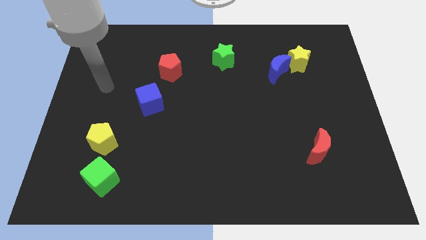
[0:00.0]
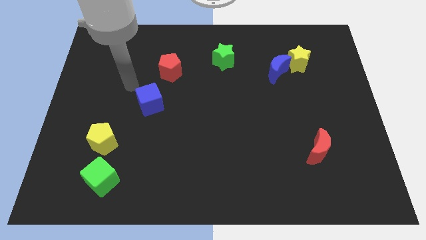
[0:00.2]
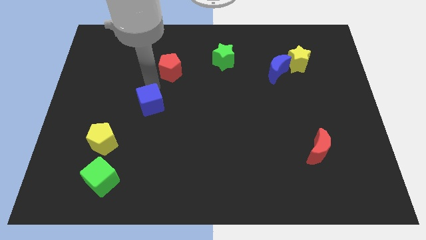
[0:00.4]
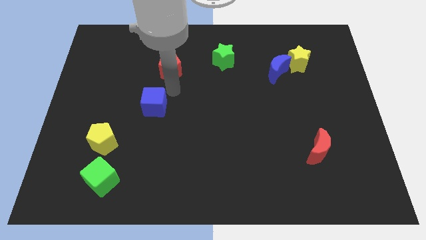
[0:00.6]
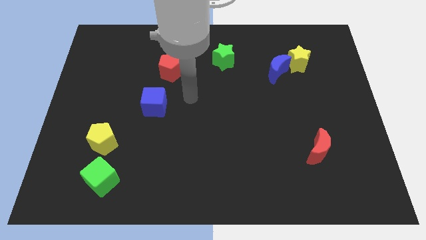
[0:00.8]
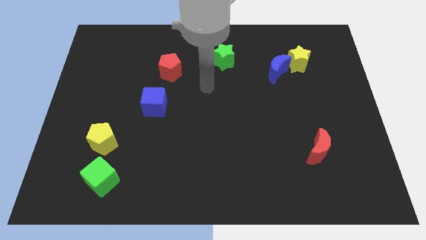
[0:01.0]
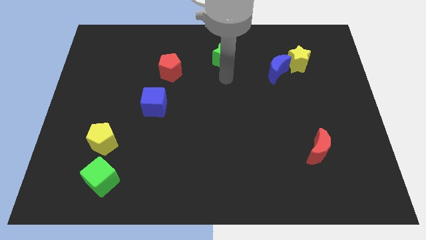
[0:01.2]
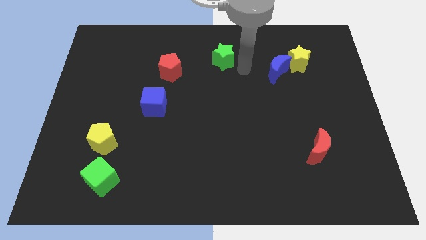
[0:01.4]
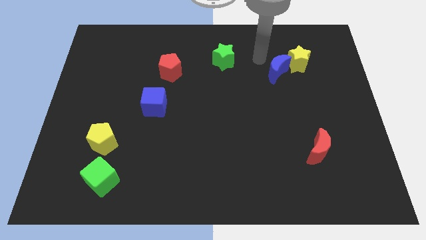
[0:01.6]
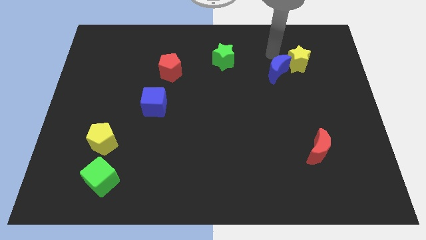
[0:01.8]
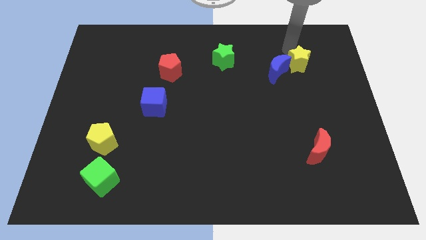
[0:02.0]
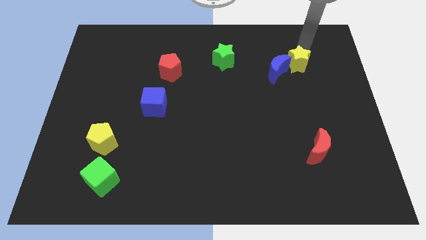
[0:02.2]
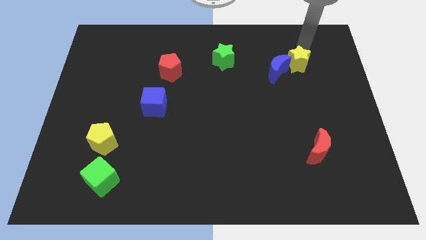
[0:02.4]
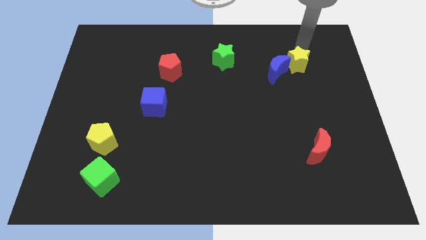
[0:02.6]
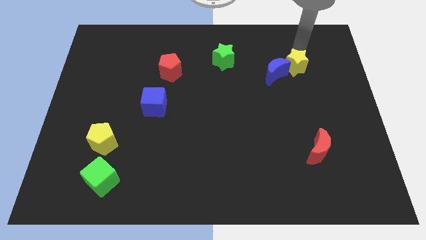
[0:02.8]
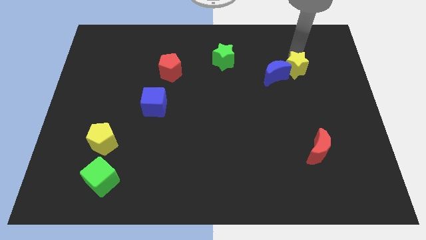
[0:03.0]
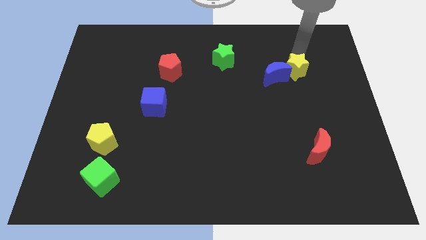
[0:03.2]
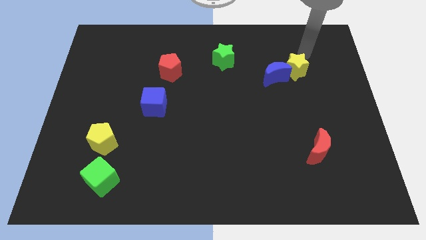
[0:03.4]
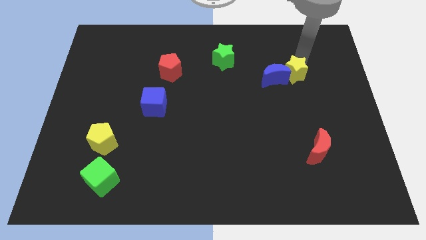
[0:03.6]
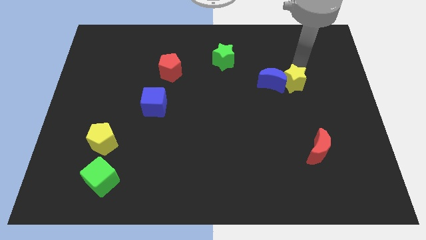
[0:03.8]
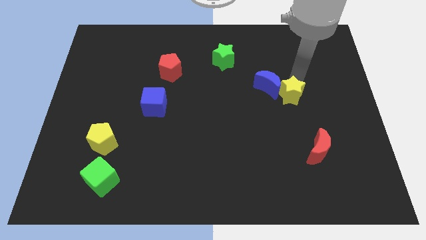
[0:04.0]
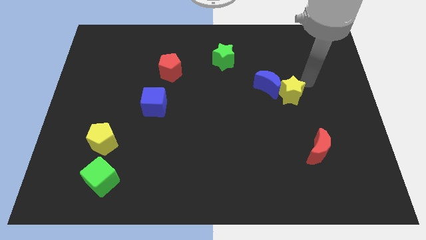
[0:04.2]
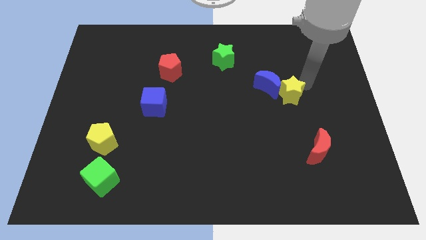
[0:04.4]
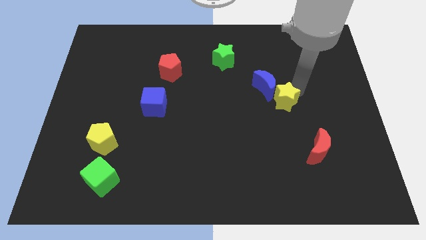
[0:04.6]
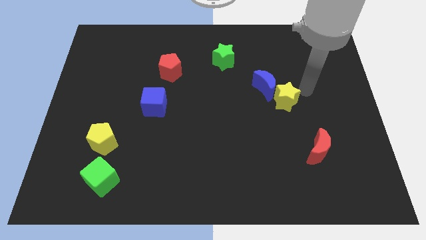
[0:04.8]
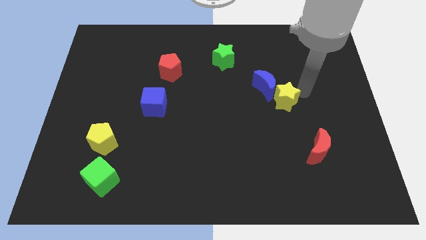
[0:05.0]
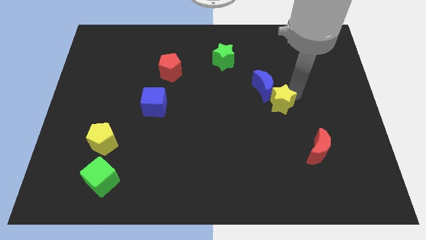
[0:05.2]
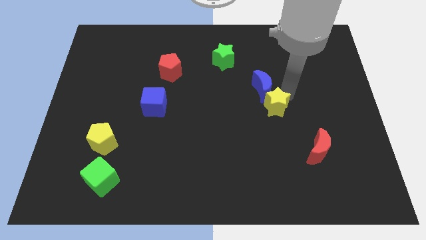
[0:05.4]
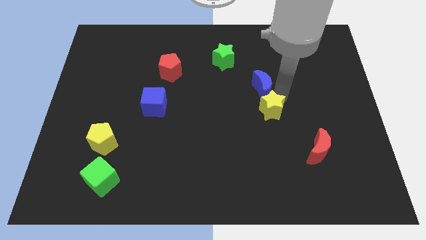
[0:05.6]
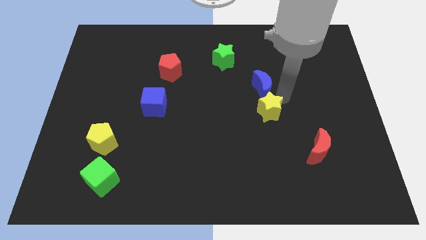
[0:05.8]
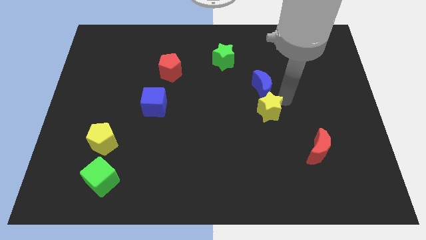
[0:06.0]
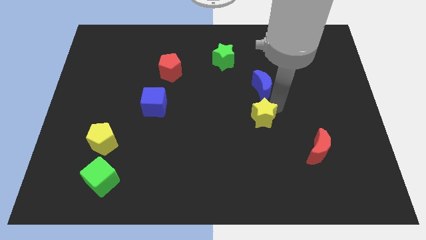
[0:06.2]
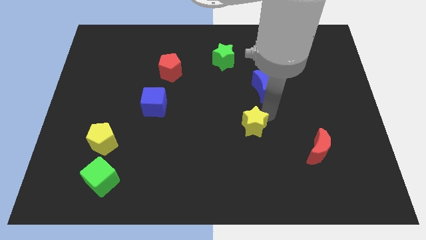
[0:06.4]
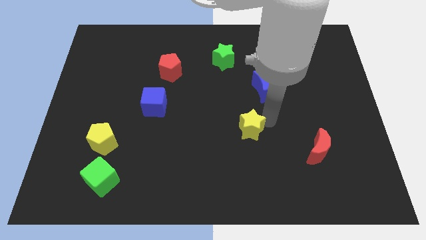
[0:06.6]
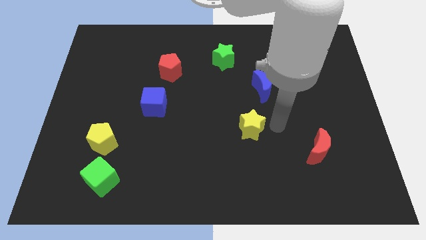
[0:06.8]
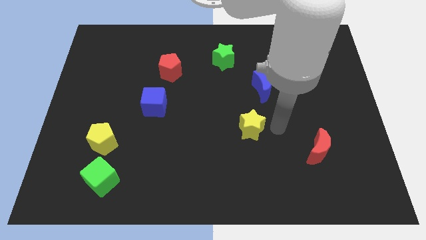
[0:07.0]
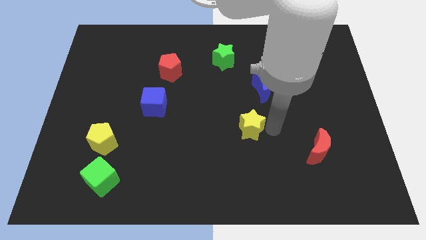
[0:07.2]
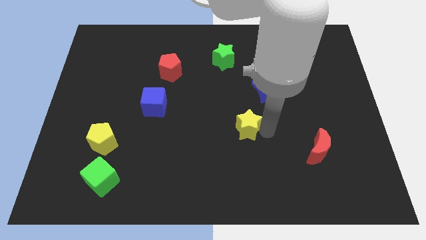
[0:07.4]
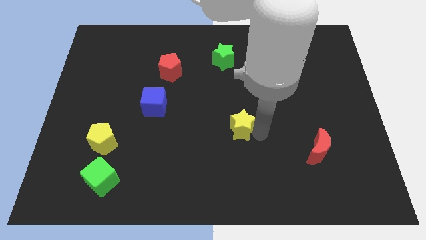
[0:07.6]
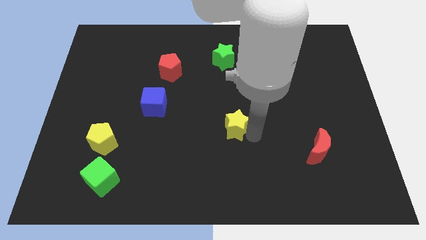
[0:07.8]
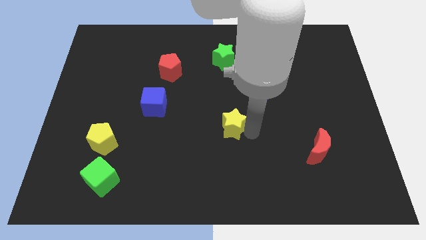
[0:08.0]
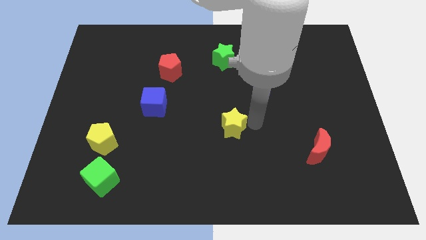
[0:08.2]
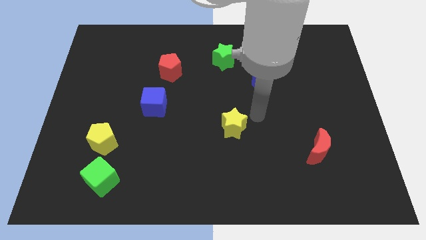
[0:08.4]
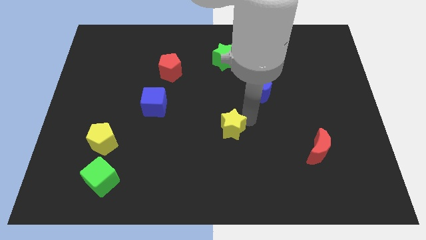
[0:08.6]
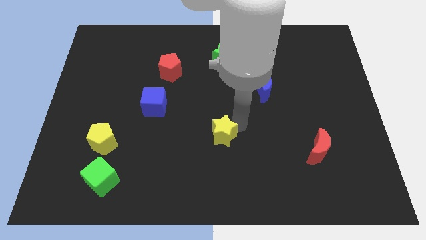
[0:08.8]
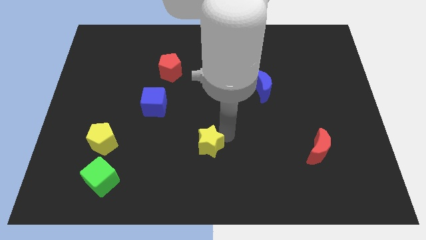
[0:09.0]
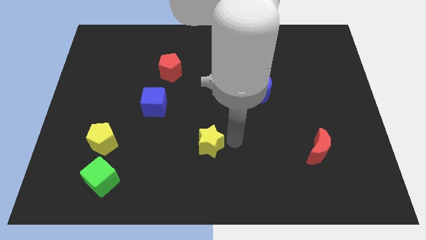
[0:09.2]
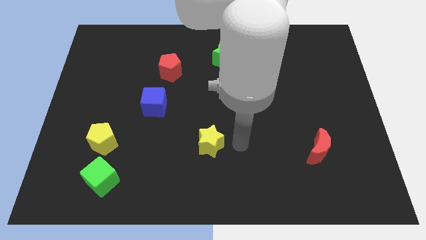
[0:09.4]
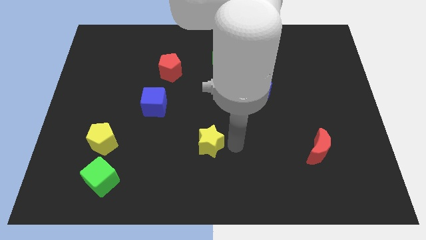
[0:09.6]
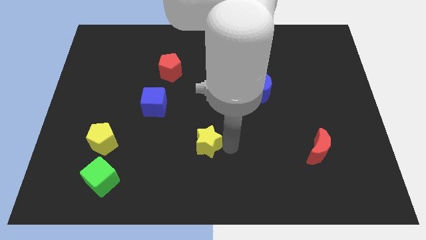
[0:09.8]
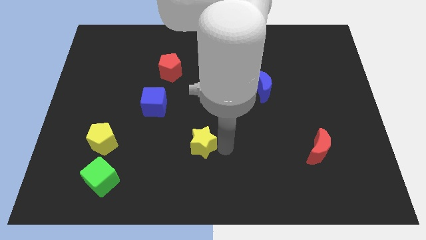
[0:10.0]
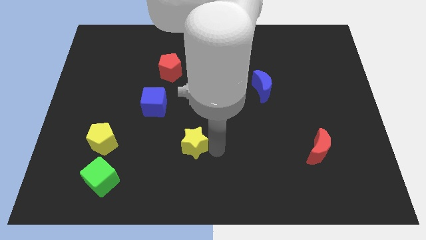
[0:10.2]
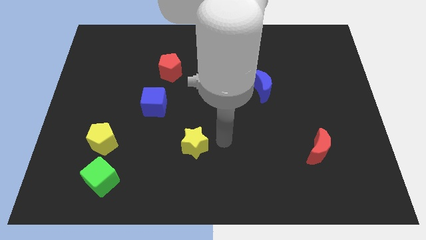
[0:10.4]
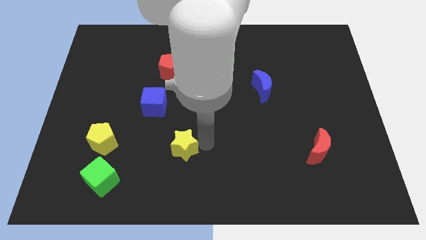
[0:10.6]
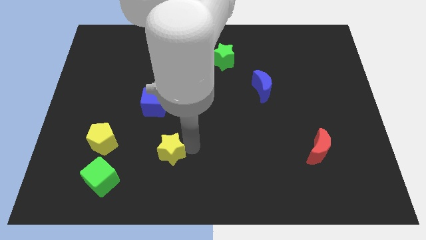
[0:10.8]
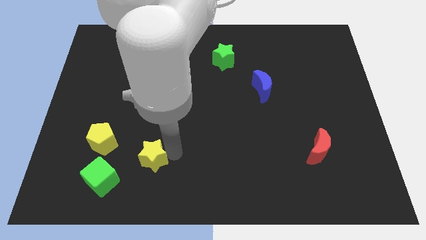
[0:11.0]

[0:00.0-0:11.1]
move the yellow star to the top right side of the green cube

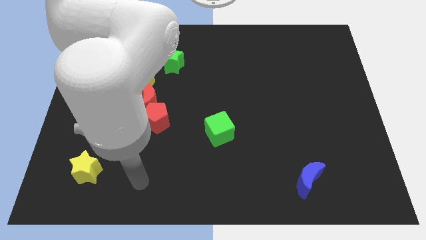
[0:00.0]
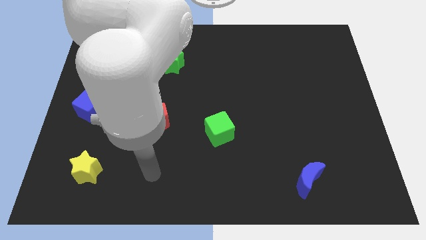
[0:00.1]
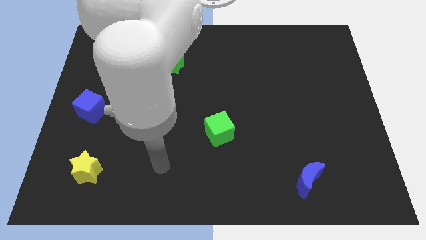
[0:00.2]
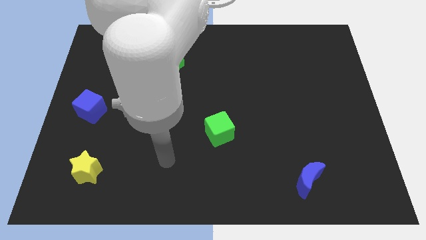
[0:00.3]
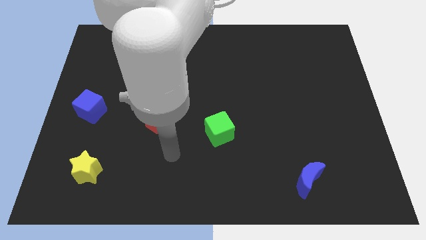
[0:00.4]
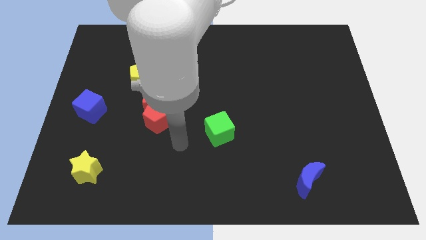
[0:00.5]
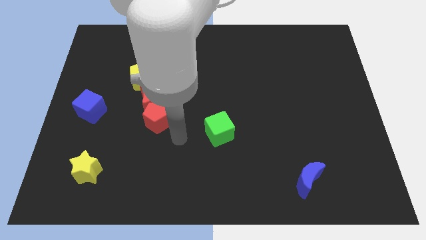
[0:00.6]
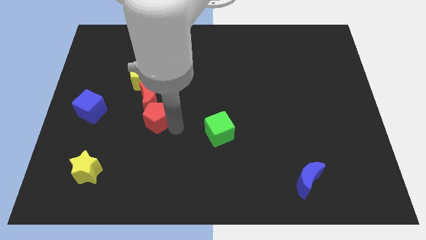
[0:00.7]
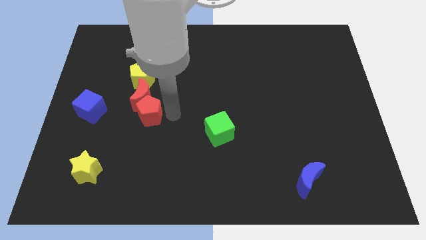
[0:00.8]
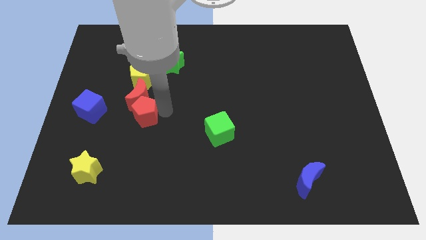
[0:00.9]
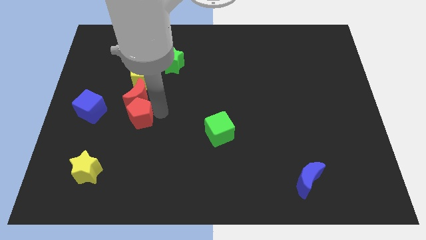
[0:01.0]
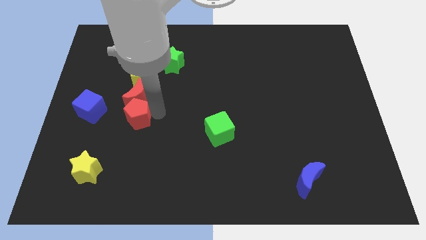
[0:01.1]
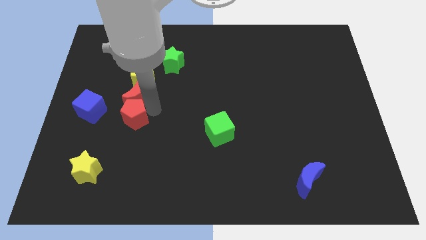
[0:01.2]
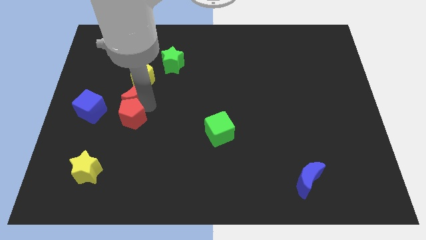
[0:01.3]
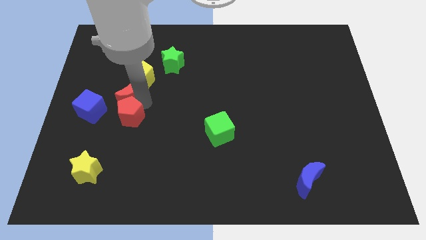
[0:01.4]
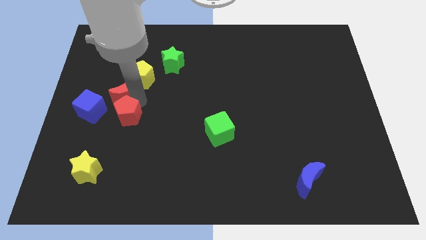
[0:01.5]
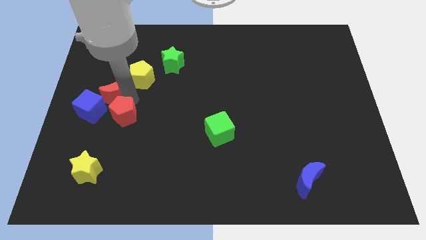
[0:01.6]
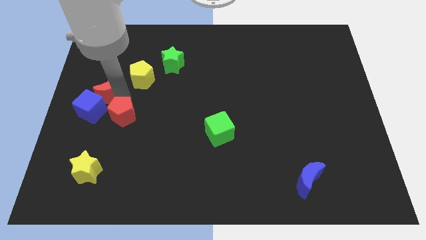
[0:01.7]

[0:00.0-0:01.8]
move the red moon above the blue cube
